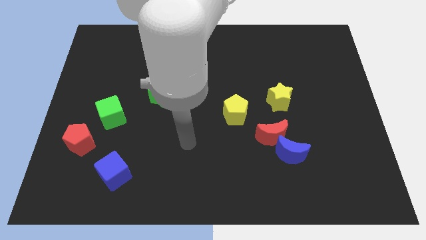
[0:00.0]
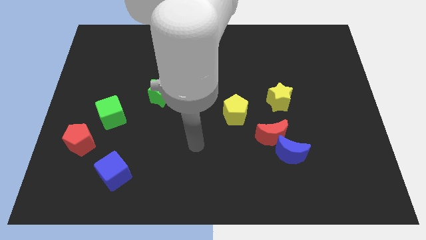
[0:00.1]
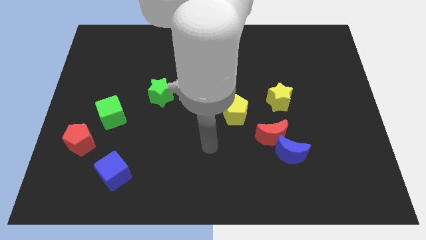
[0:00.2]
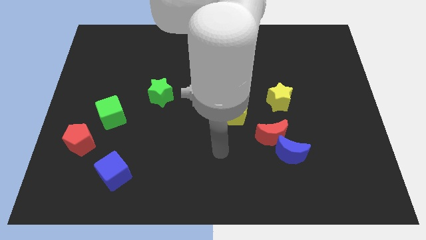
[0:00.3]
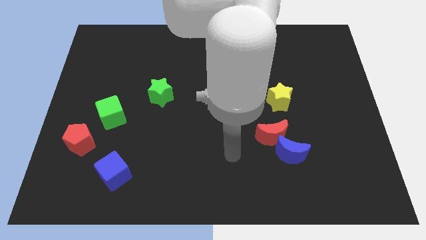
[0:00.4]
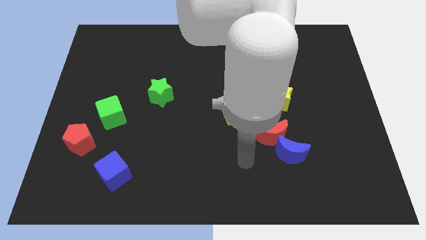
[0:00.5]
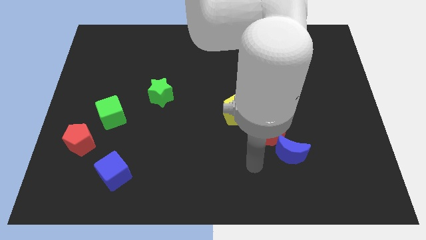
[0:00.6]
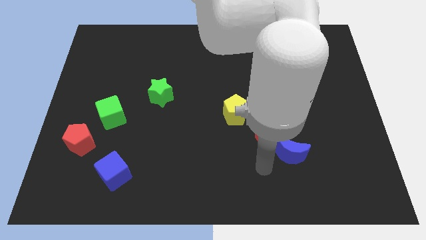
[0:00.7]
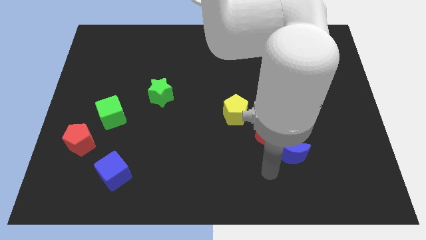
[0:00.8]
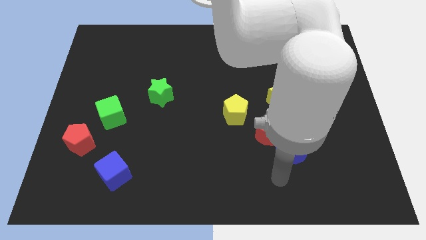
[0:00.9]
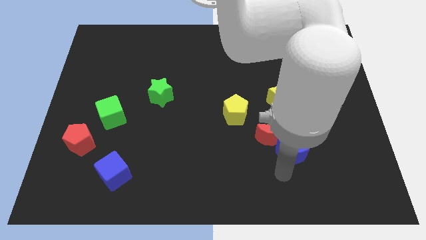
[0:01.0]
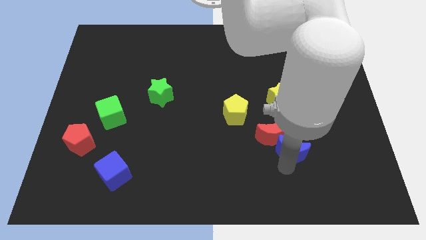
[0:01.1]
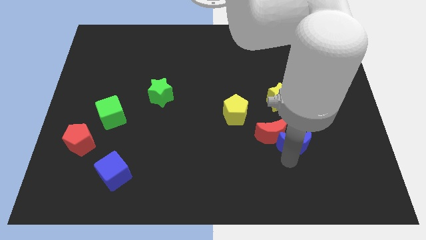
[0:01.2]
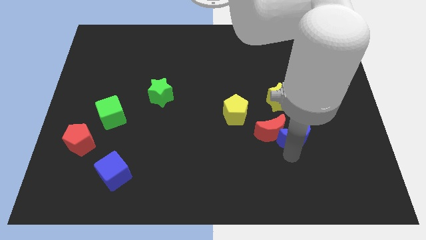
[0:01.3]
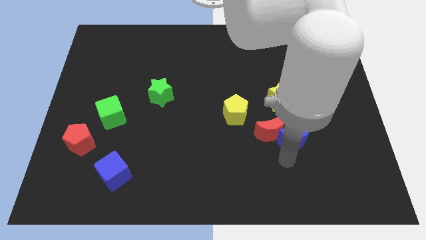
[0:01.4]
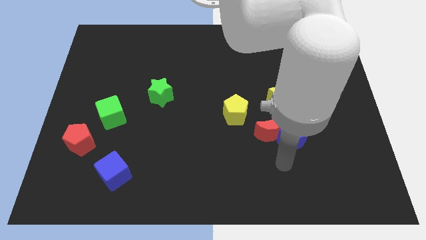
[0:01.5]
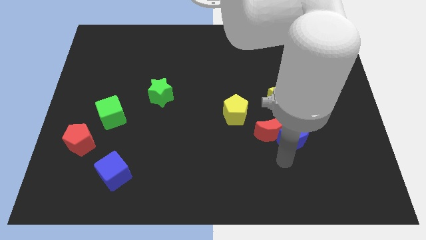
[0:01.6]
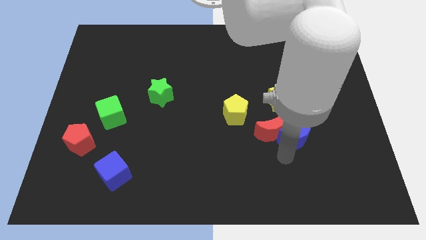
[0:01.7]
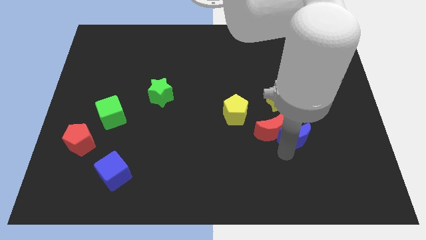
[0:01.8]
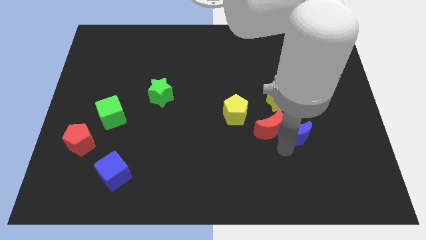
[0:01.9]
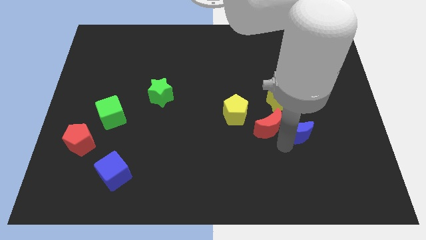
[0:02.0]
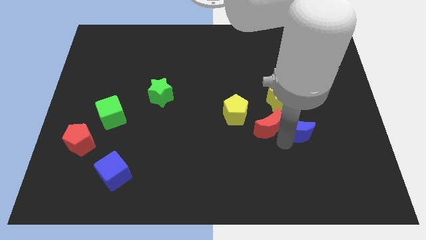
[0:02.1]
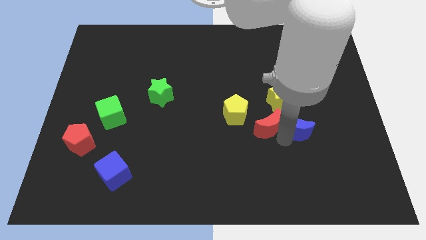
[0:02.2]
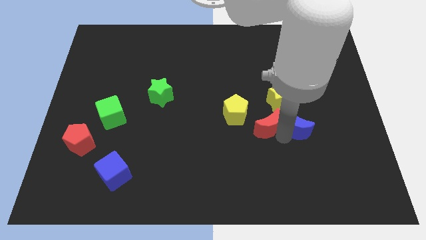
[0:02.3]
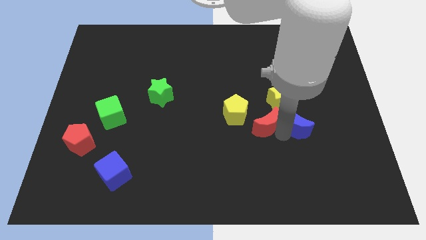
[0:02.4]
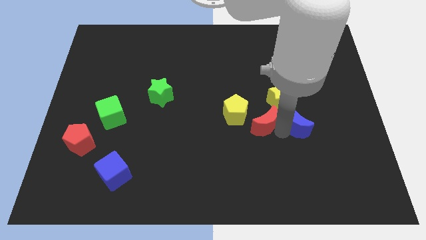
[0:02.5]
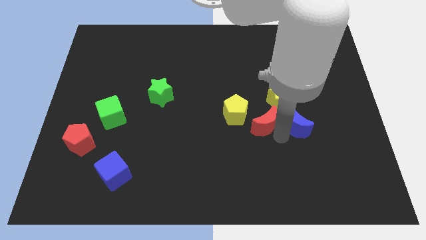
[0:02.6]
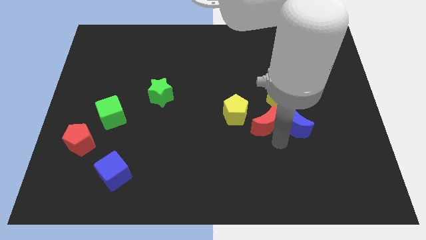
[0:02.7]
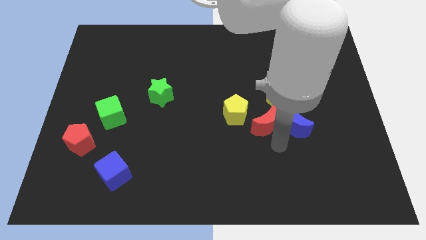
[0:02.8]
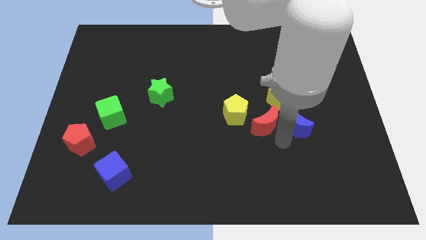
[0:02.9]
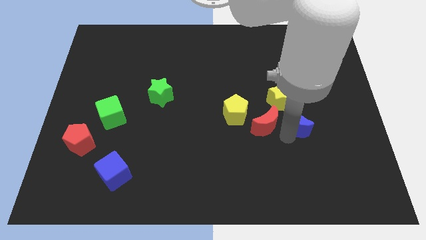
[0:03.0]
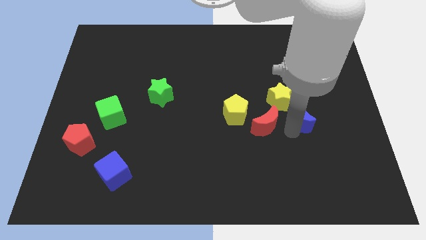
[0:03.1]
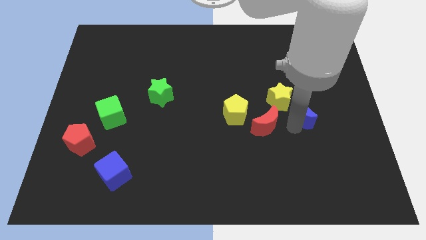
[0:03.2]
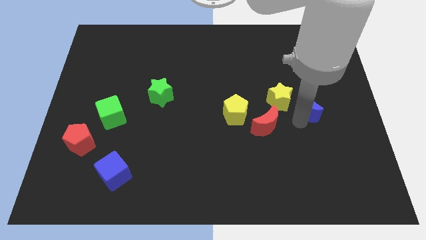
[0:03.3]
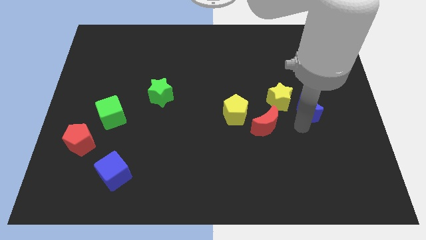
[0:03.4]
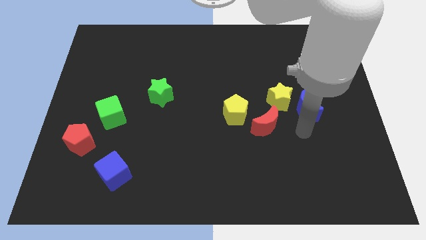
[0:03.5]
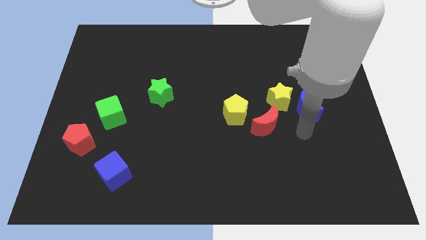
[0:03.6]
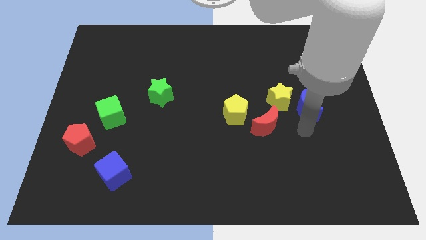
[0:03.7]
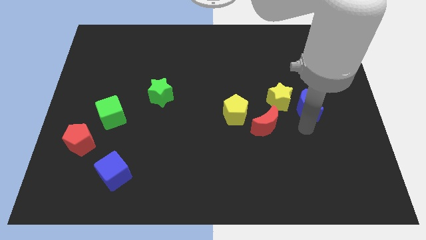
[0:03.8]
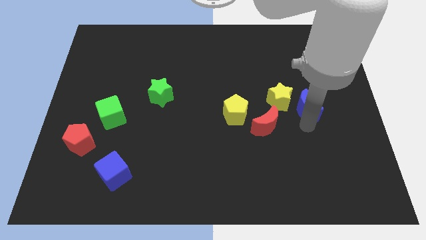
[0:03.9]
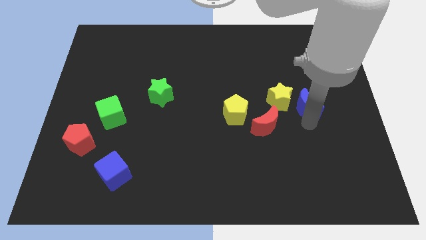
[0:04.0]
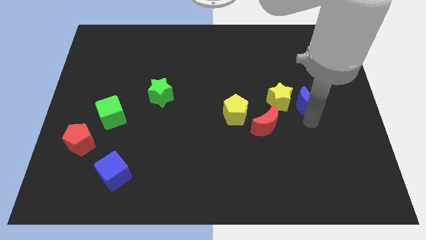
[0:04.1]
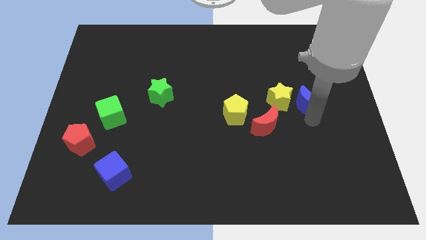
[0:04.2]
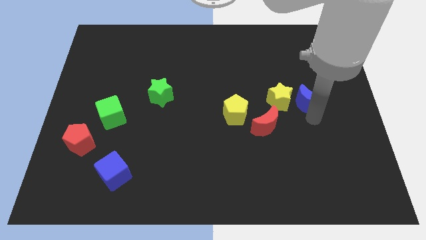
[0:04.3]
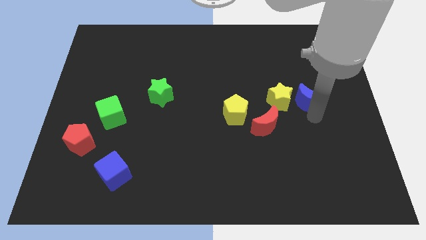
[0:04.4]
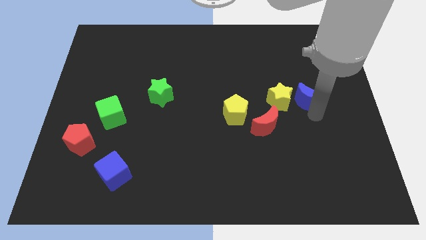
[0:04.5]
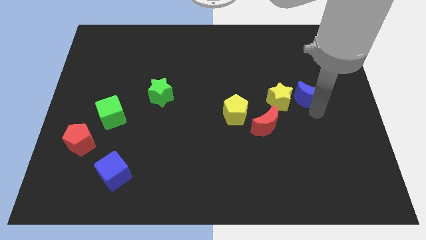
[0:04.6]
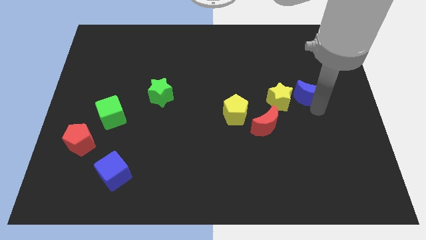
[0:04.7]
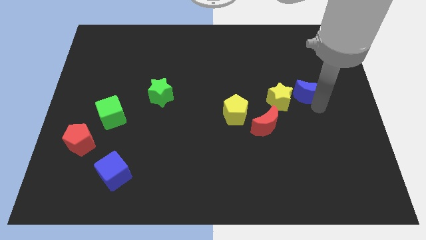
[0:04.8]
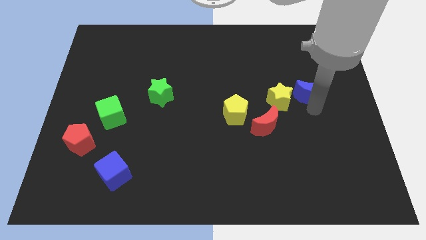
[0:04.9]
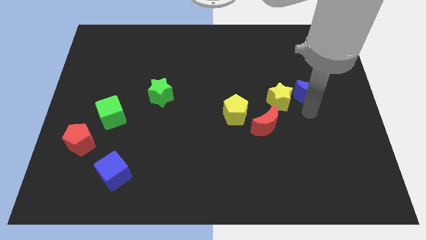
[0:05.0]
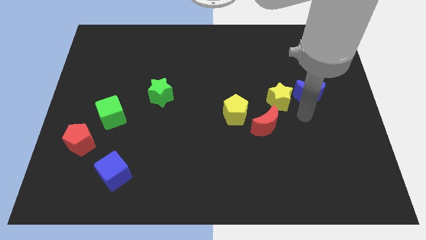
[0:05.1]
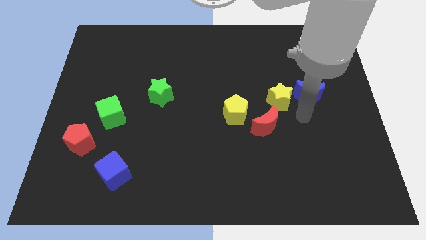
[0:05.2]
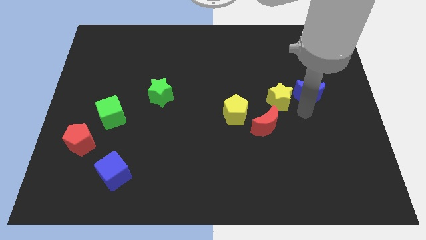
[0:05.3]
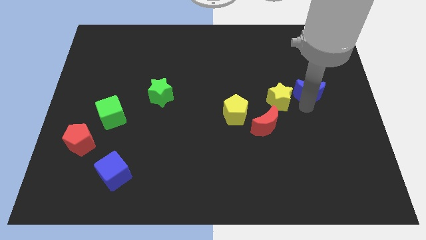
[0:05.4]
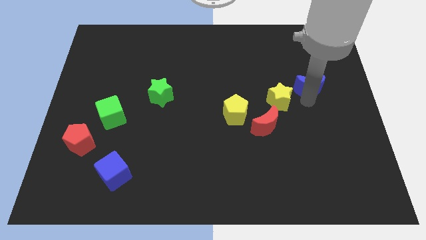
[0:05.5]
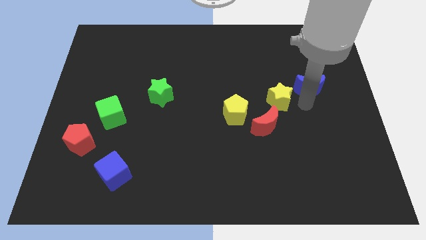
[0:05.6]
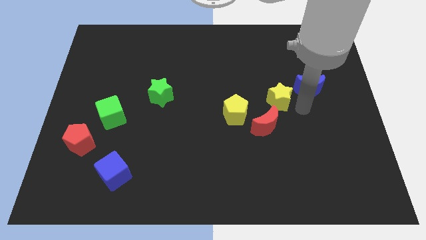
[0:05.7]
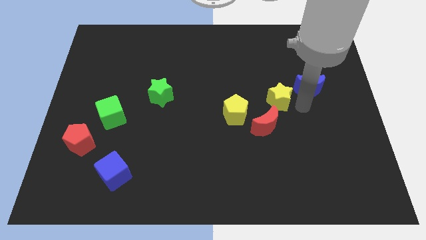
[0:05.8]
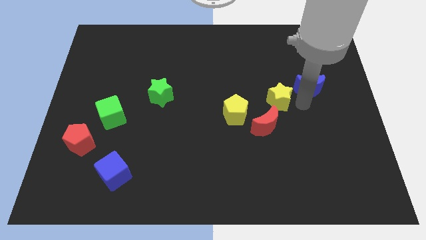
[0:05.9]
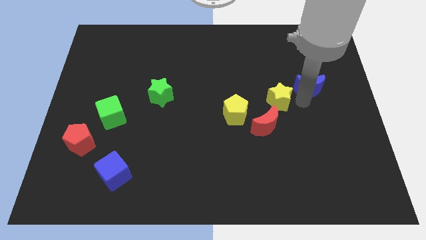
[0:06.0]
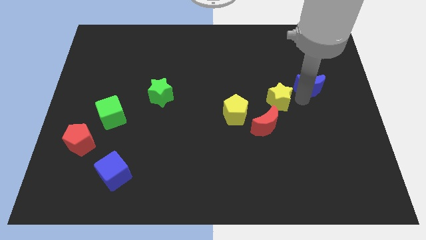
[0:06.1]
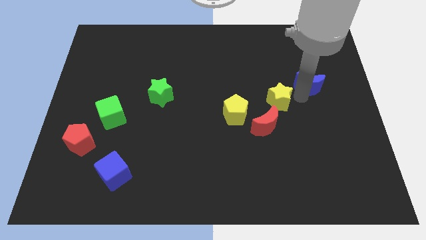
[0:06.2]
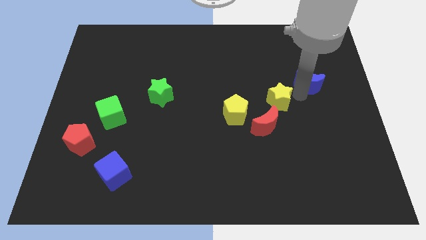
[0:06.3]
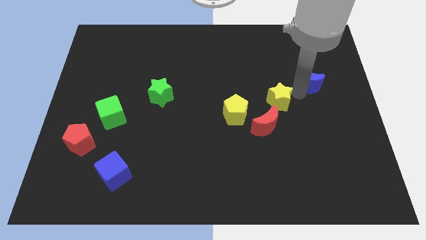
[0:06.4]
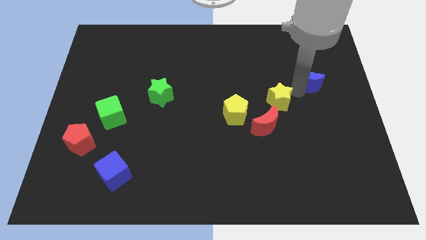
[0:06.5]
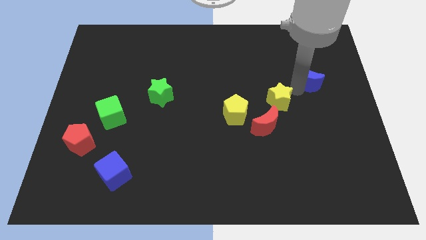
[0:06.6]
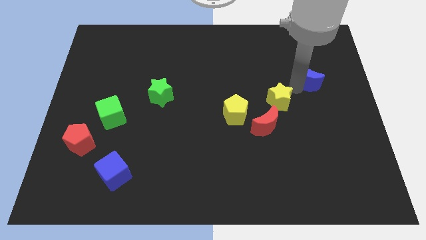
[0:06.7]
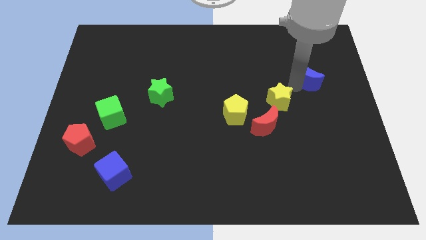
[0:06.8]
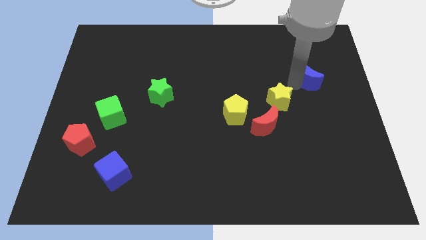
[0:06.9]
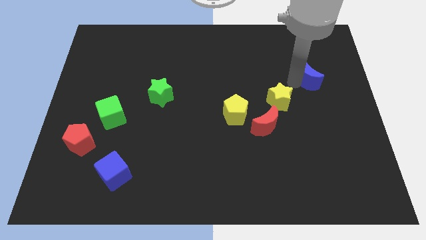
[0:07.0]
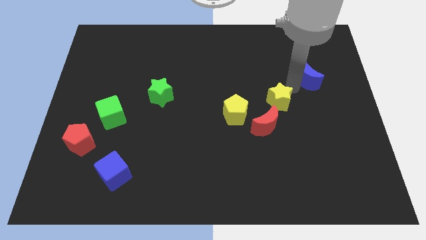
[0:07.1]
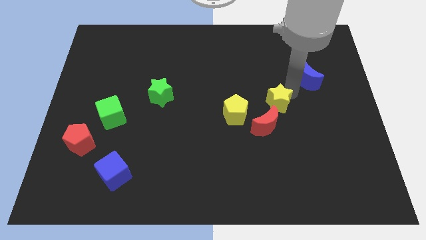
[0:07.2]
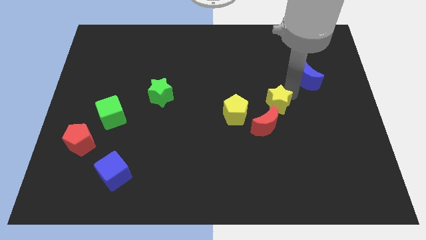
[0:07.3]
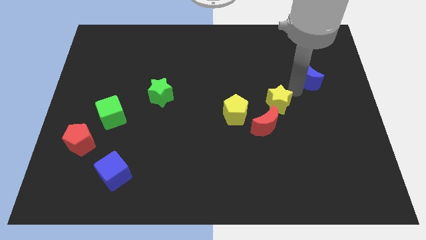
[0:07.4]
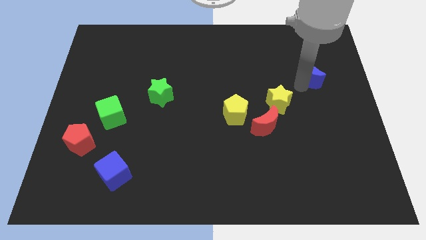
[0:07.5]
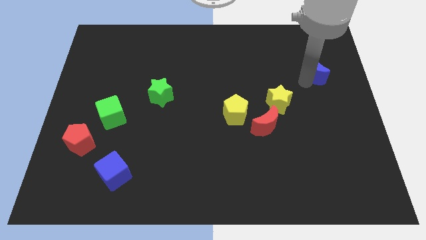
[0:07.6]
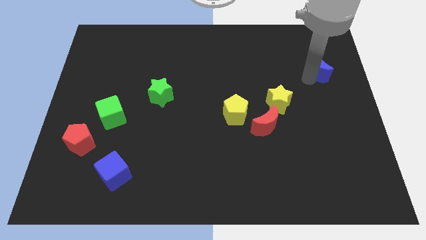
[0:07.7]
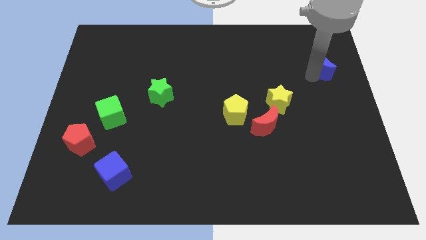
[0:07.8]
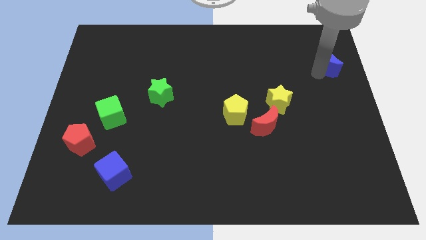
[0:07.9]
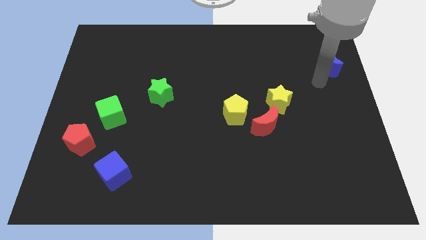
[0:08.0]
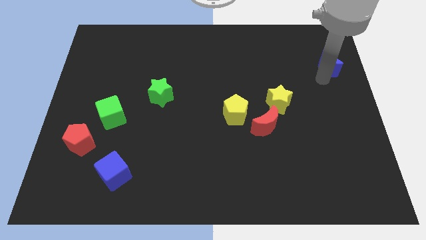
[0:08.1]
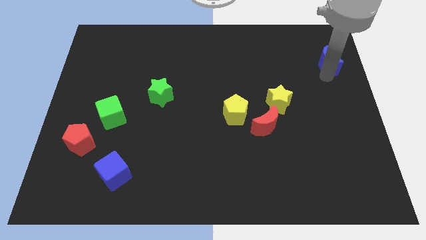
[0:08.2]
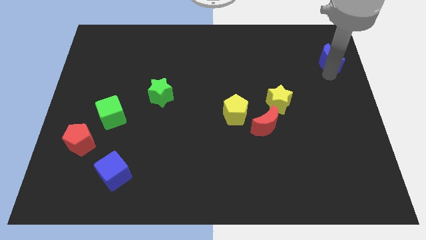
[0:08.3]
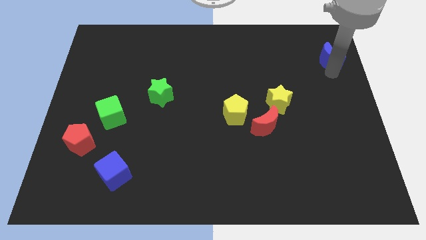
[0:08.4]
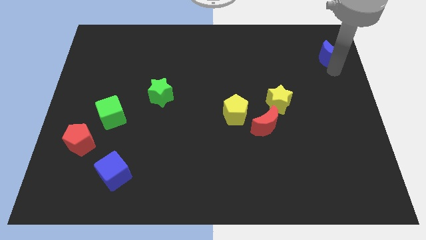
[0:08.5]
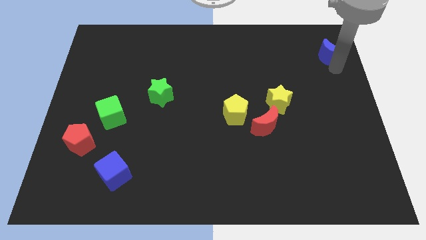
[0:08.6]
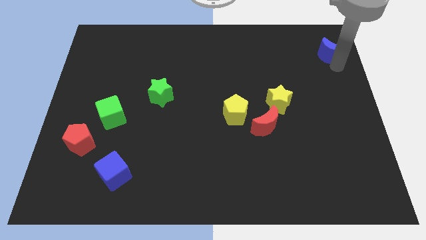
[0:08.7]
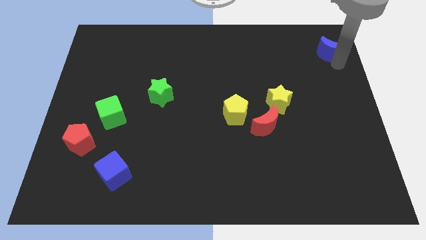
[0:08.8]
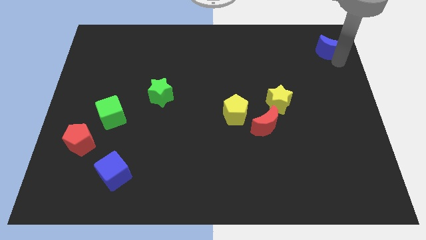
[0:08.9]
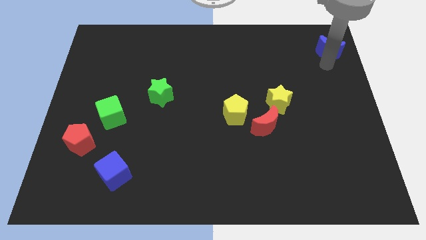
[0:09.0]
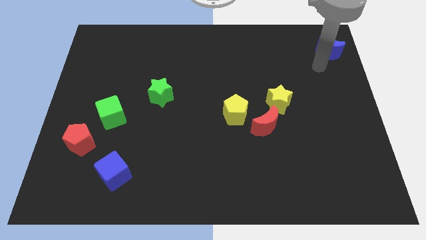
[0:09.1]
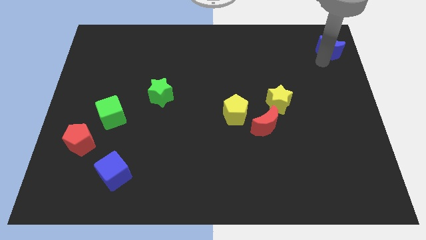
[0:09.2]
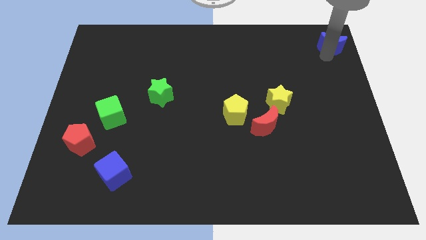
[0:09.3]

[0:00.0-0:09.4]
push the blue moon to the top right of the board
